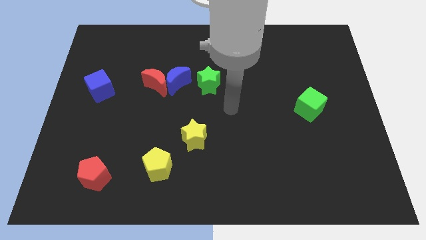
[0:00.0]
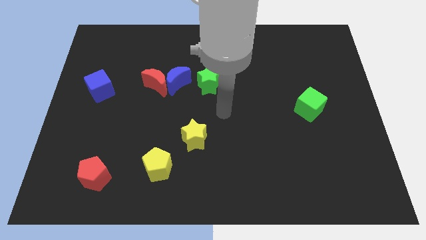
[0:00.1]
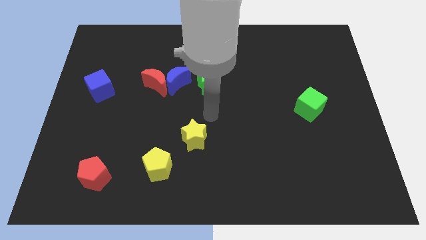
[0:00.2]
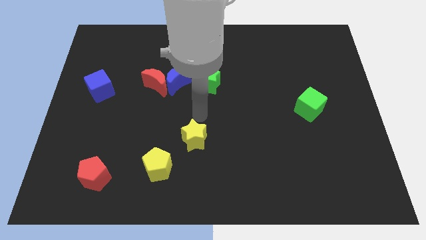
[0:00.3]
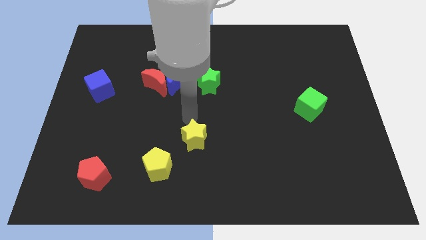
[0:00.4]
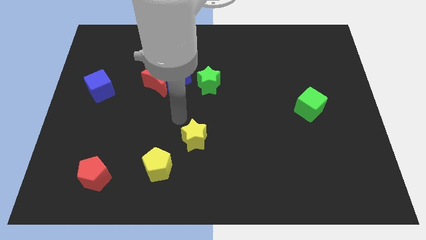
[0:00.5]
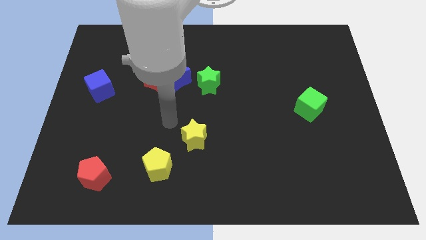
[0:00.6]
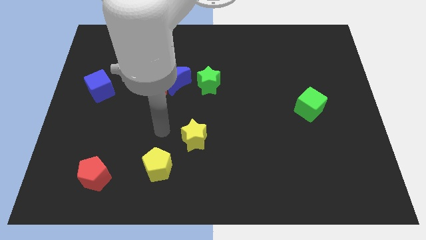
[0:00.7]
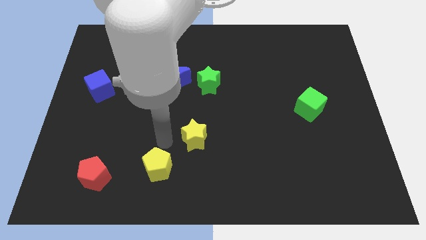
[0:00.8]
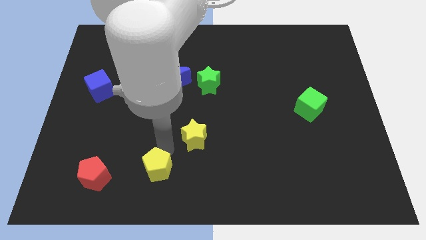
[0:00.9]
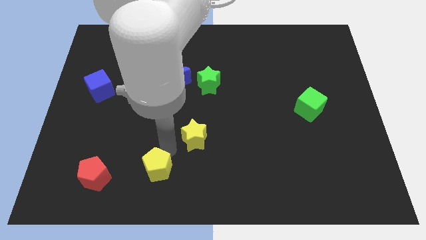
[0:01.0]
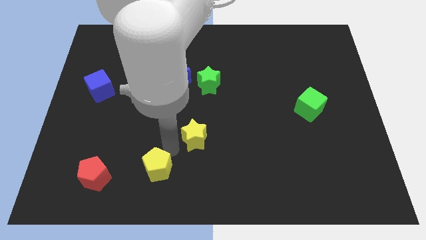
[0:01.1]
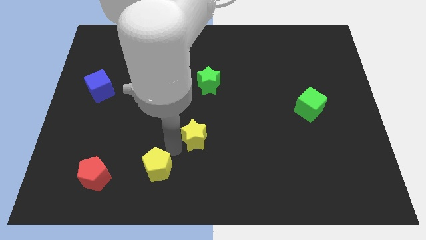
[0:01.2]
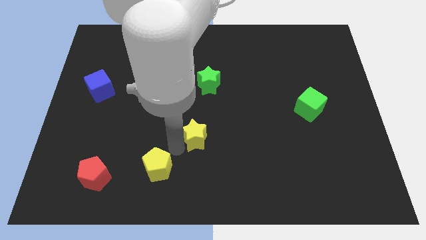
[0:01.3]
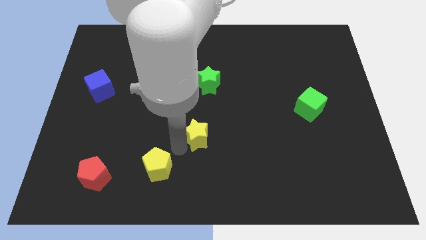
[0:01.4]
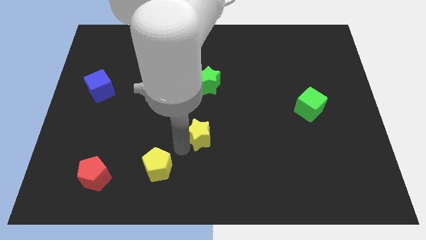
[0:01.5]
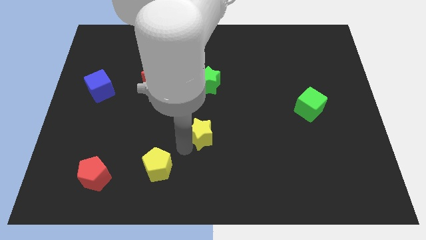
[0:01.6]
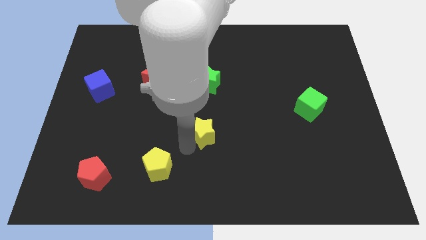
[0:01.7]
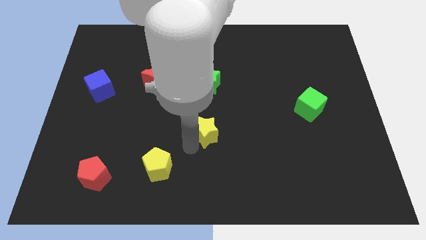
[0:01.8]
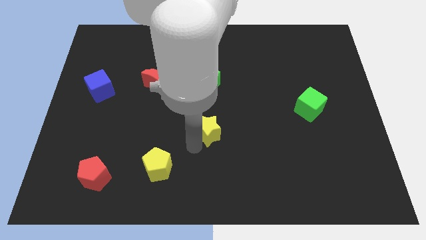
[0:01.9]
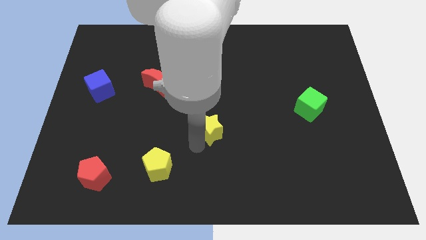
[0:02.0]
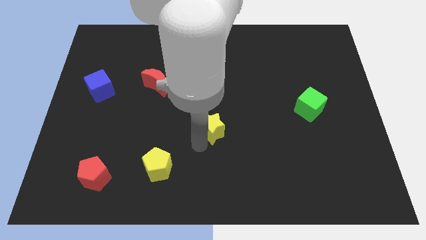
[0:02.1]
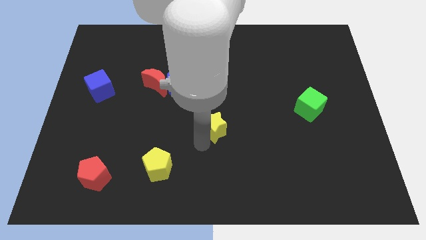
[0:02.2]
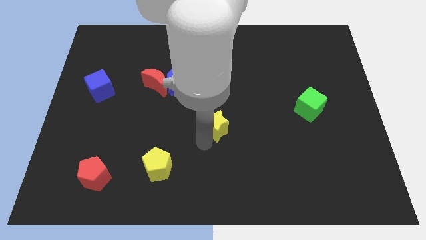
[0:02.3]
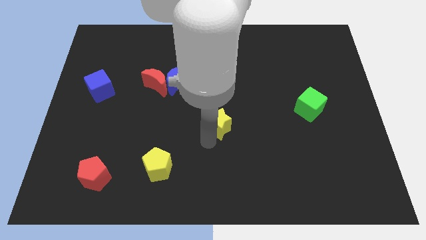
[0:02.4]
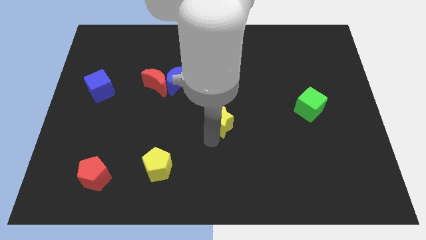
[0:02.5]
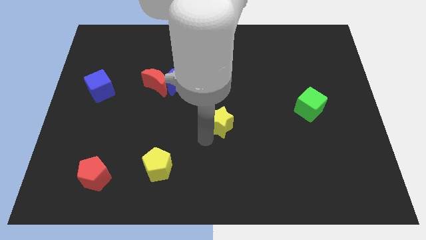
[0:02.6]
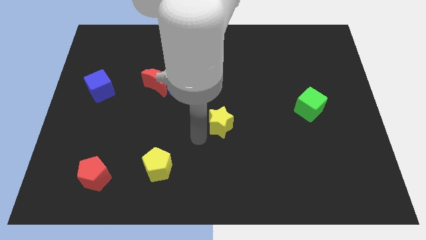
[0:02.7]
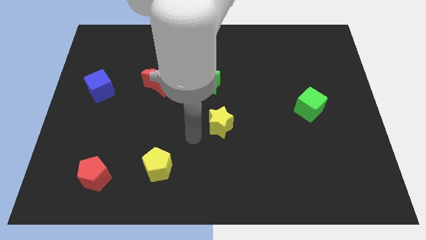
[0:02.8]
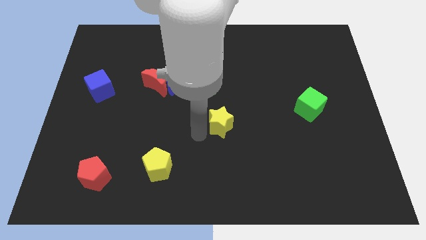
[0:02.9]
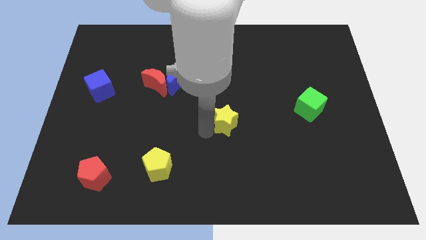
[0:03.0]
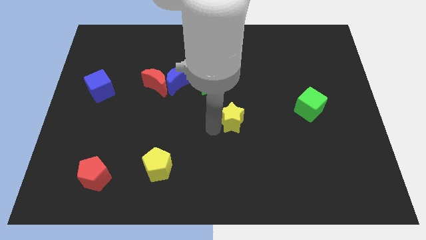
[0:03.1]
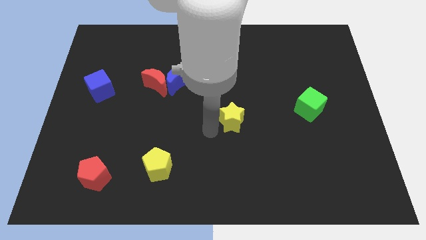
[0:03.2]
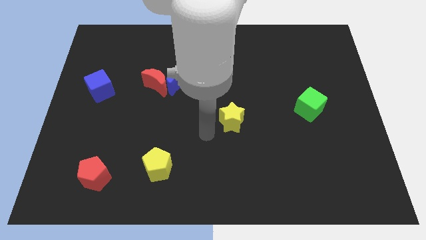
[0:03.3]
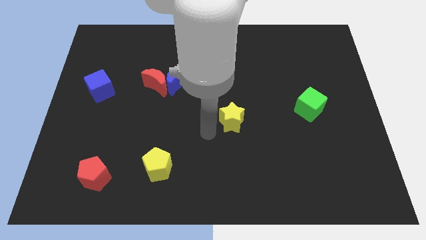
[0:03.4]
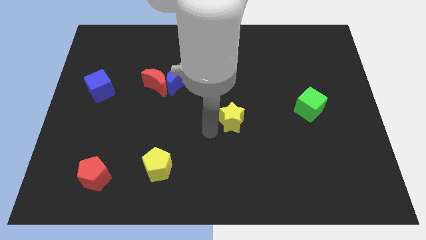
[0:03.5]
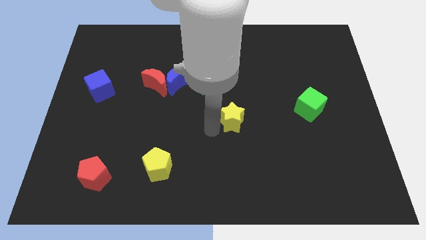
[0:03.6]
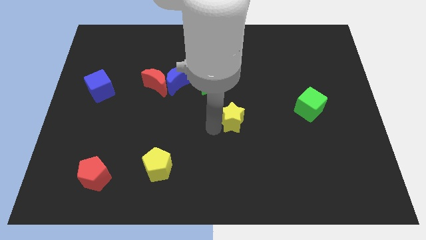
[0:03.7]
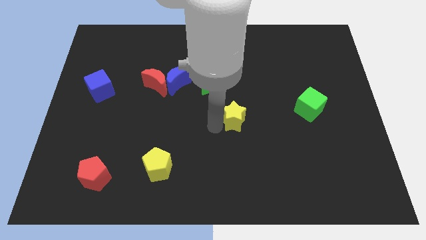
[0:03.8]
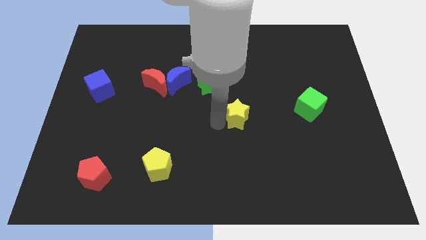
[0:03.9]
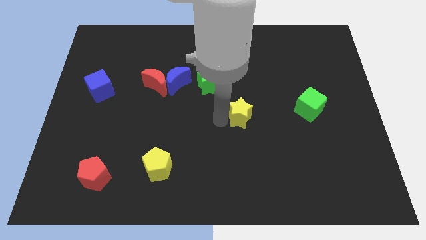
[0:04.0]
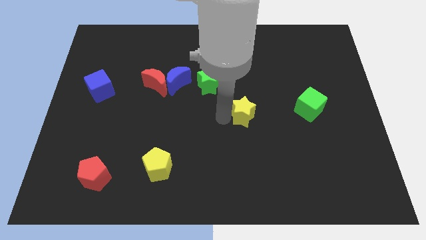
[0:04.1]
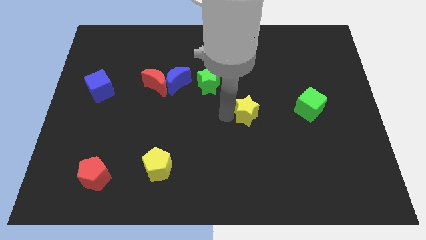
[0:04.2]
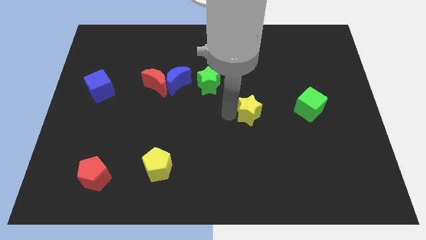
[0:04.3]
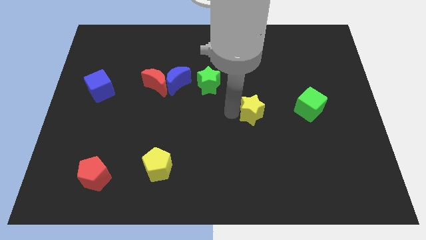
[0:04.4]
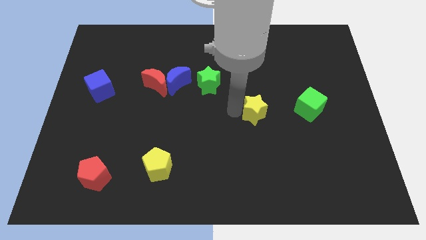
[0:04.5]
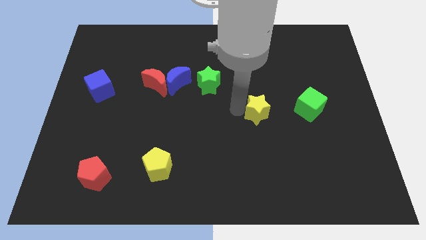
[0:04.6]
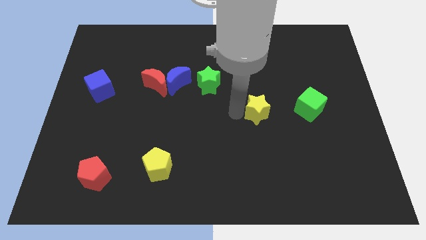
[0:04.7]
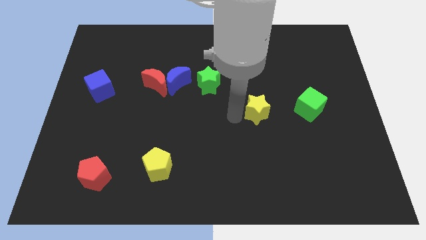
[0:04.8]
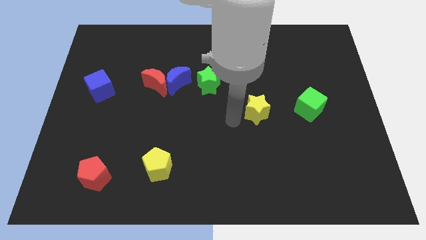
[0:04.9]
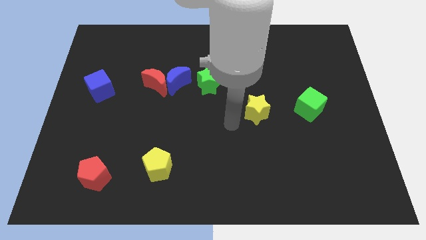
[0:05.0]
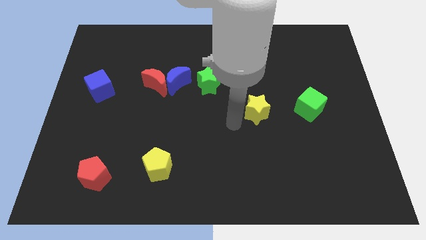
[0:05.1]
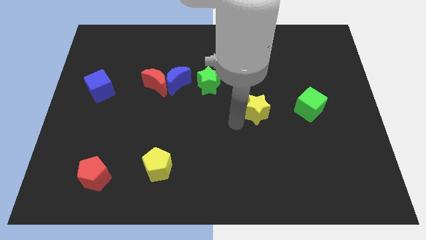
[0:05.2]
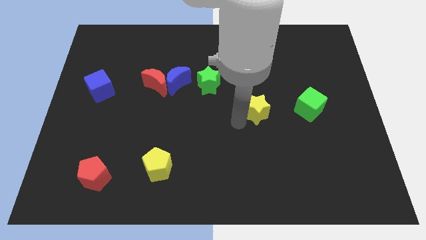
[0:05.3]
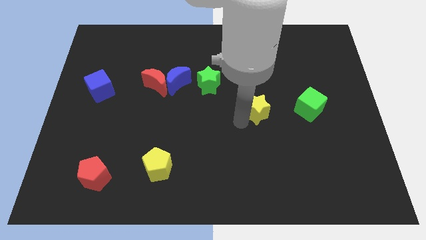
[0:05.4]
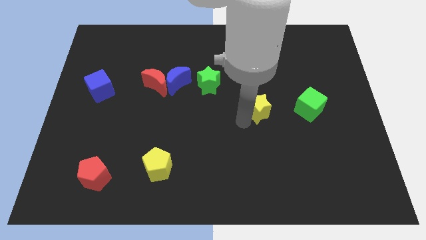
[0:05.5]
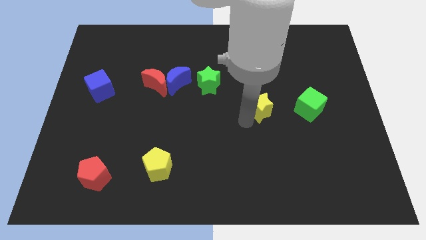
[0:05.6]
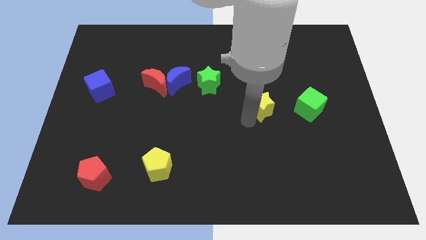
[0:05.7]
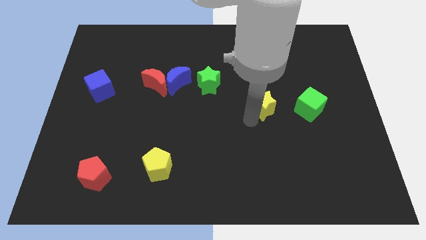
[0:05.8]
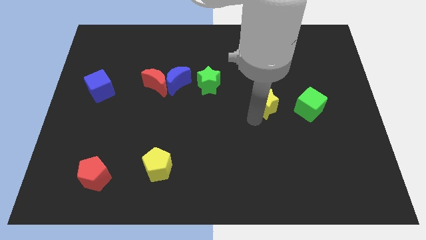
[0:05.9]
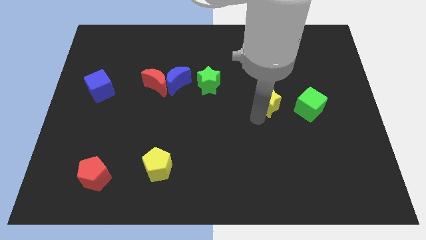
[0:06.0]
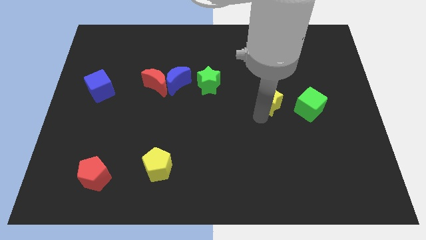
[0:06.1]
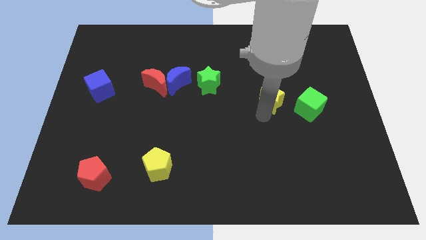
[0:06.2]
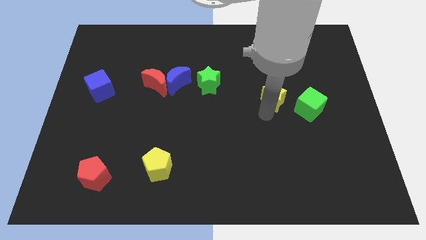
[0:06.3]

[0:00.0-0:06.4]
put the yellow star diagonally up and to the left of the green cube

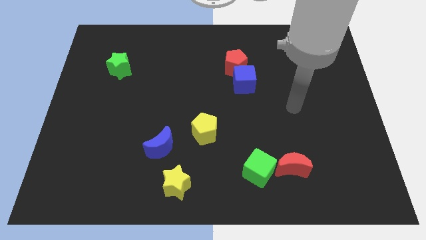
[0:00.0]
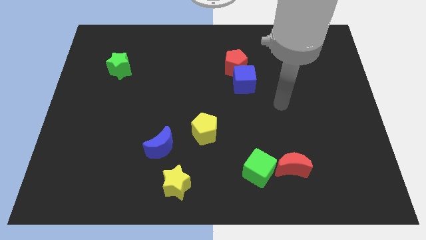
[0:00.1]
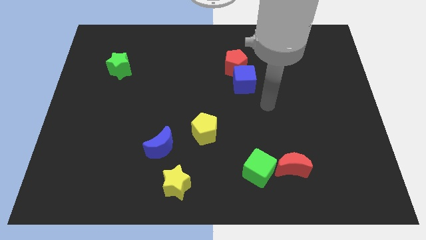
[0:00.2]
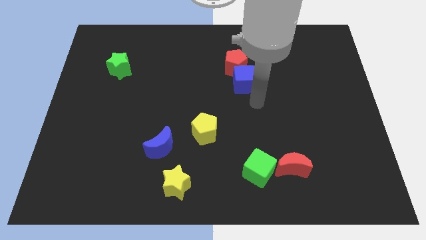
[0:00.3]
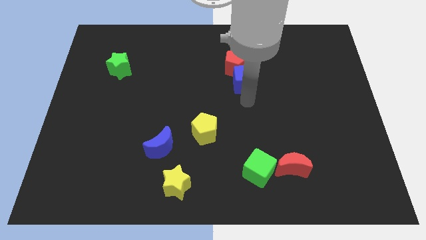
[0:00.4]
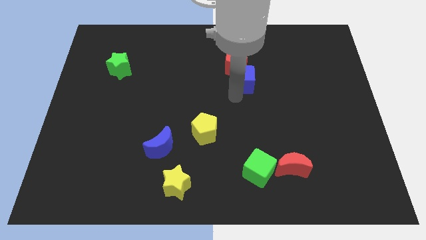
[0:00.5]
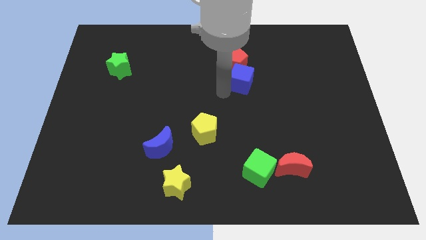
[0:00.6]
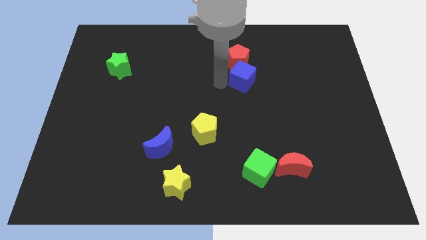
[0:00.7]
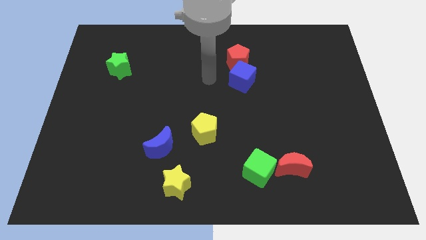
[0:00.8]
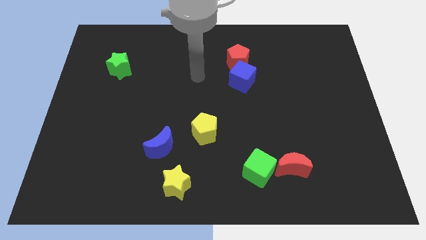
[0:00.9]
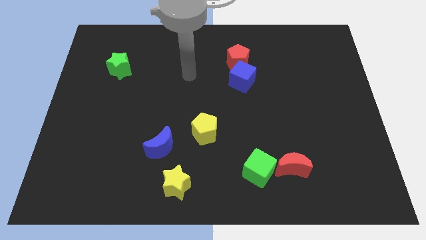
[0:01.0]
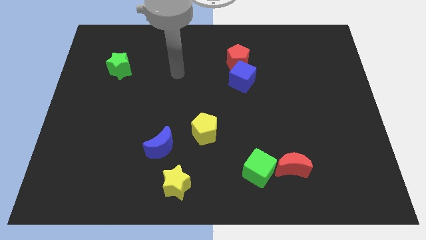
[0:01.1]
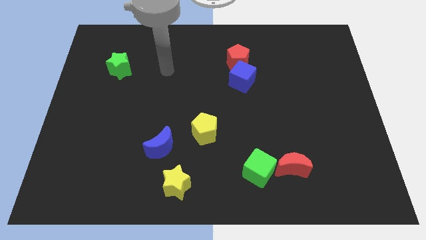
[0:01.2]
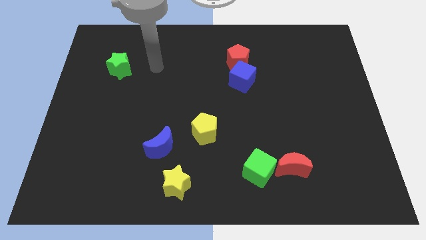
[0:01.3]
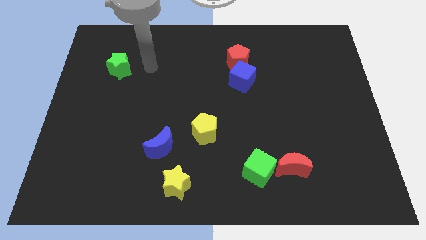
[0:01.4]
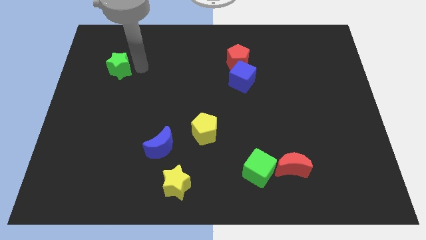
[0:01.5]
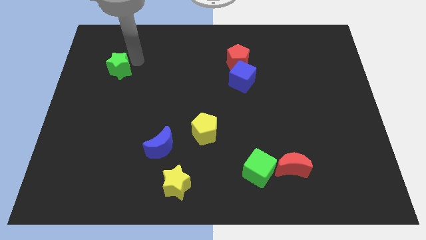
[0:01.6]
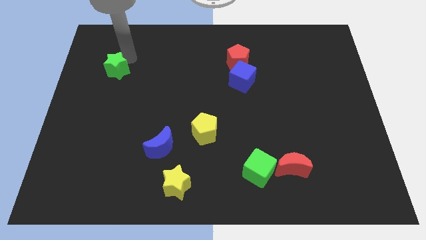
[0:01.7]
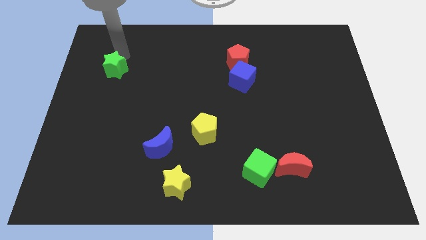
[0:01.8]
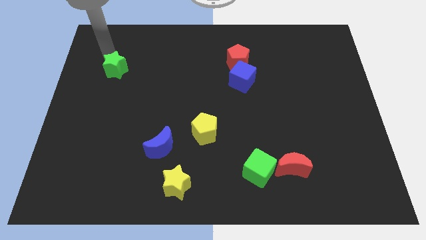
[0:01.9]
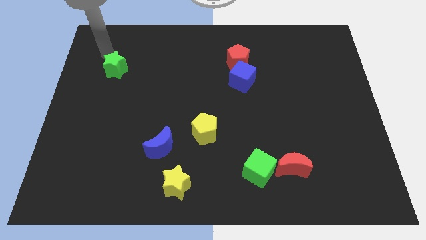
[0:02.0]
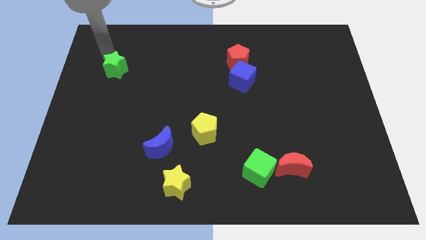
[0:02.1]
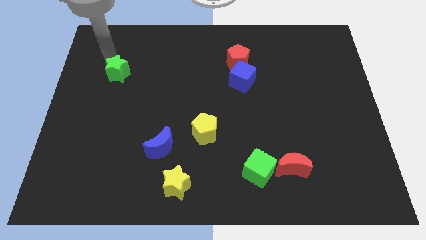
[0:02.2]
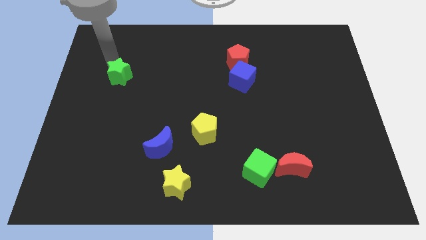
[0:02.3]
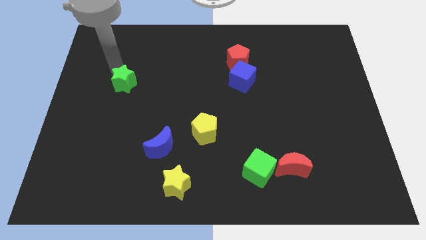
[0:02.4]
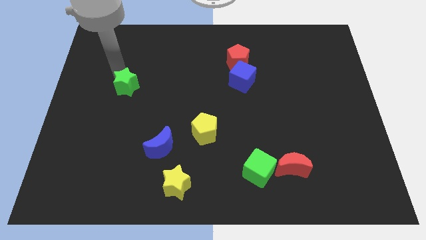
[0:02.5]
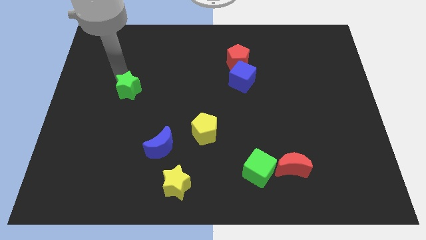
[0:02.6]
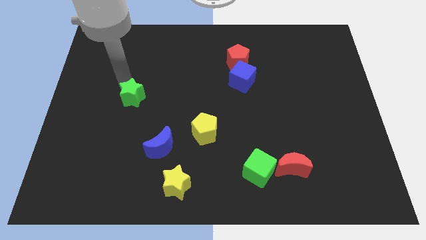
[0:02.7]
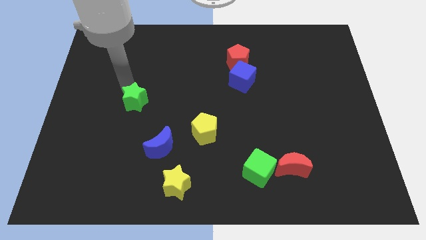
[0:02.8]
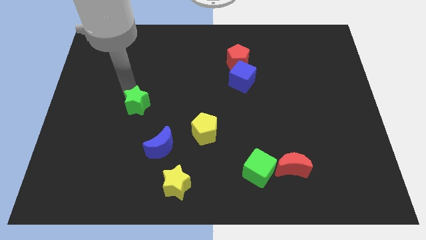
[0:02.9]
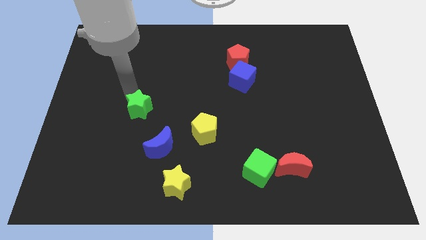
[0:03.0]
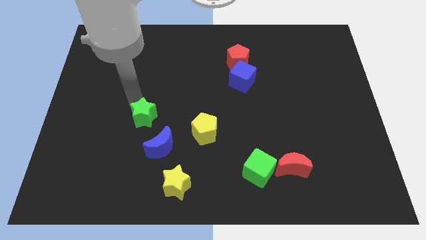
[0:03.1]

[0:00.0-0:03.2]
move the green star left of the yellow pentagon
